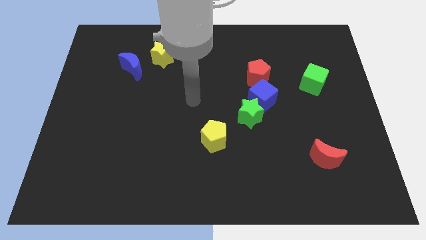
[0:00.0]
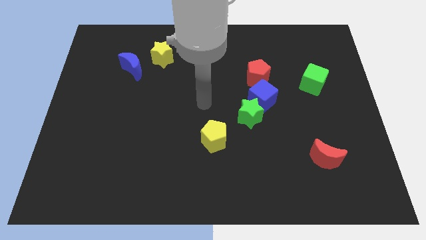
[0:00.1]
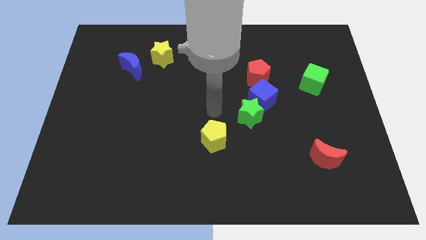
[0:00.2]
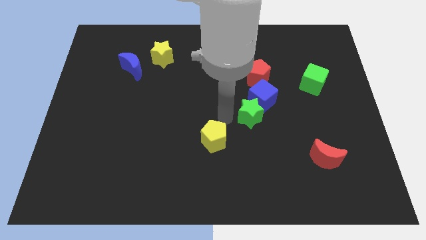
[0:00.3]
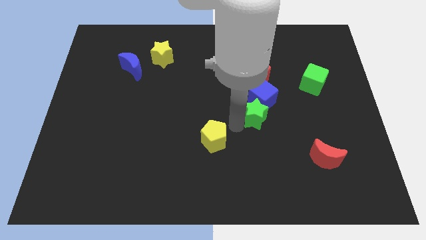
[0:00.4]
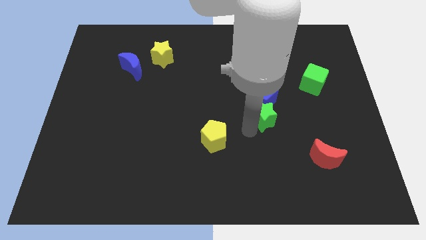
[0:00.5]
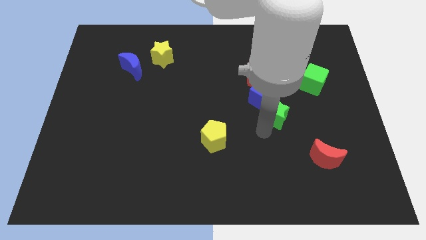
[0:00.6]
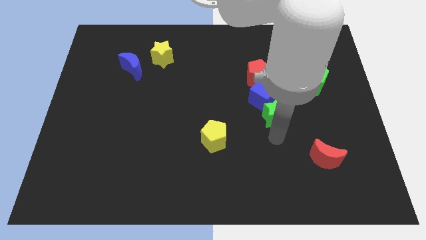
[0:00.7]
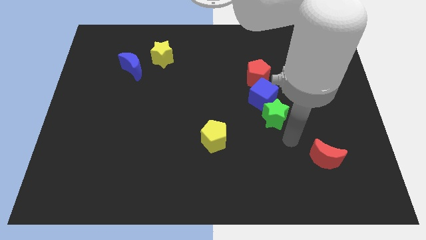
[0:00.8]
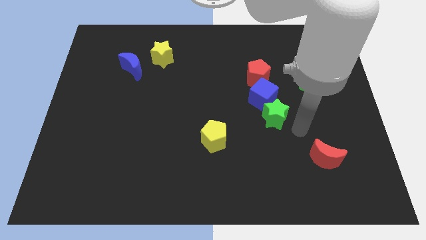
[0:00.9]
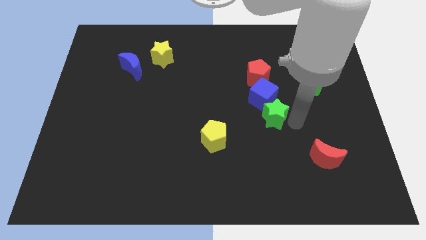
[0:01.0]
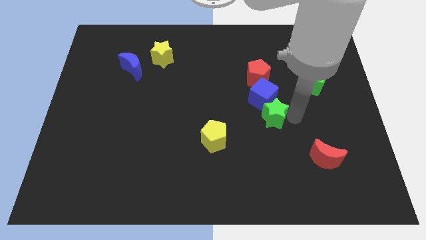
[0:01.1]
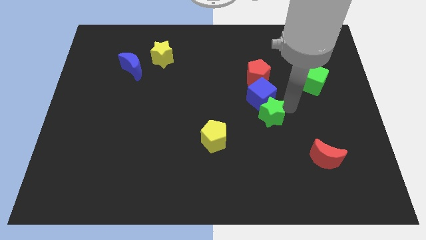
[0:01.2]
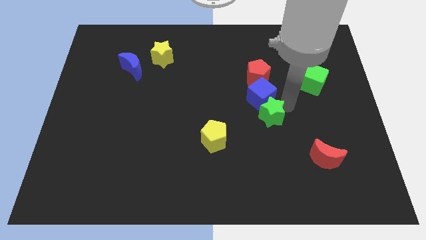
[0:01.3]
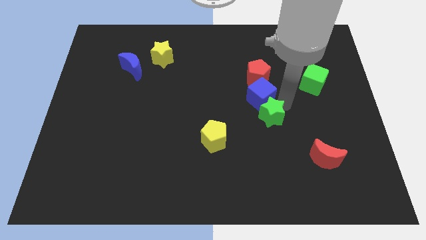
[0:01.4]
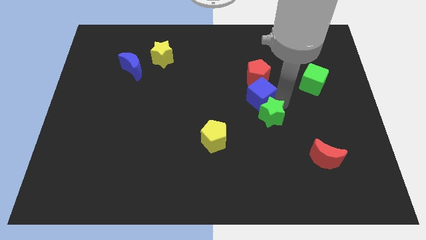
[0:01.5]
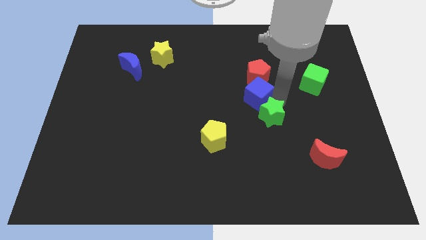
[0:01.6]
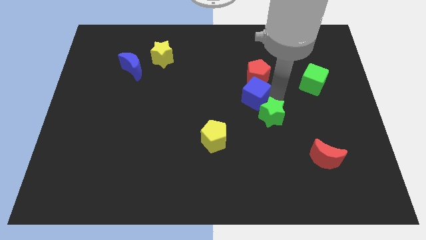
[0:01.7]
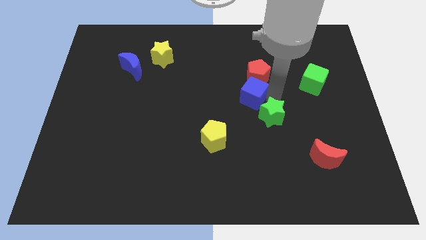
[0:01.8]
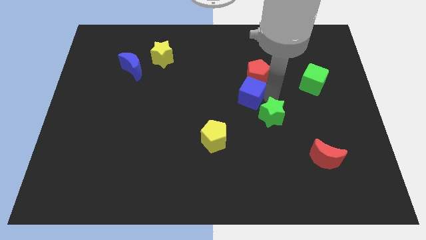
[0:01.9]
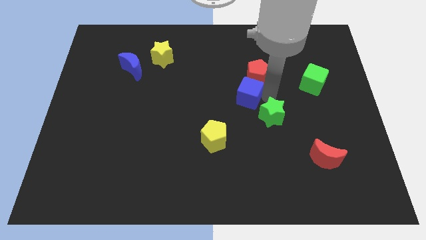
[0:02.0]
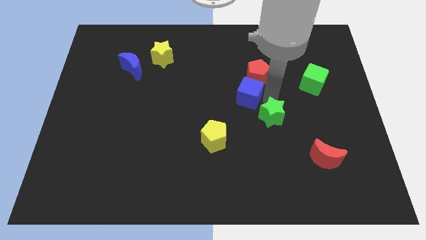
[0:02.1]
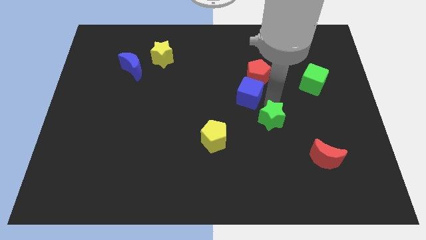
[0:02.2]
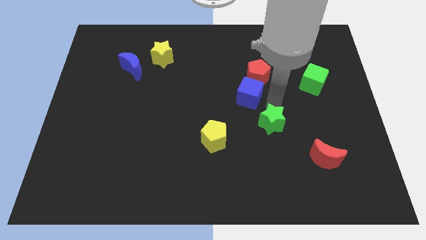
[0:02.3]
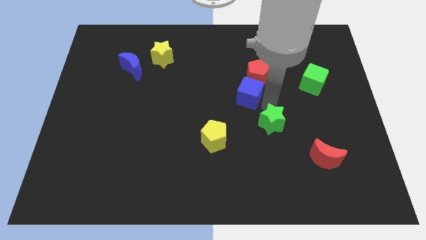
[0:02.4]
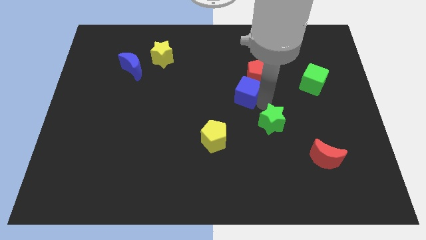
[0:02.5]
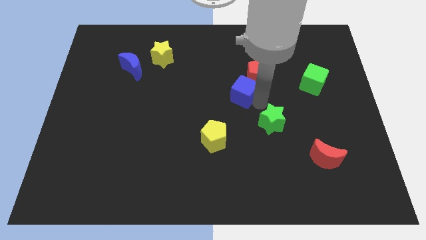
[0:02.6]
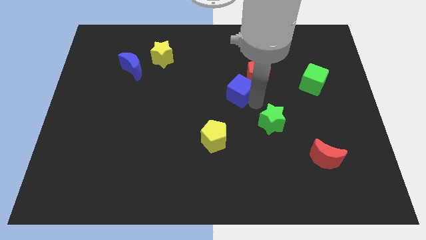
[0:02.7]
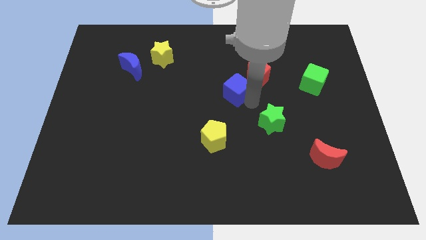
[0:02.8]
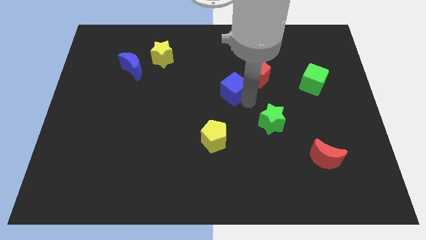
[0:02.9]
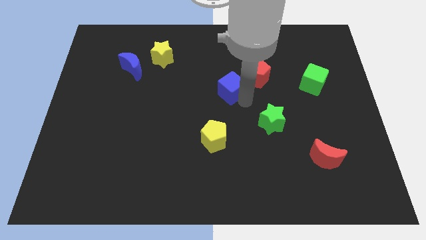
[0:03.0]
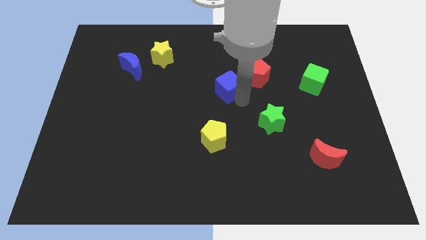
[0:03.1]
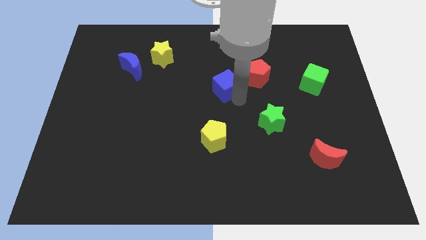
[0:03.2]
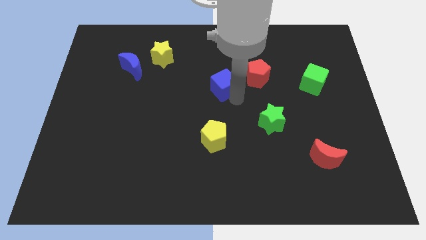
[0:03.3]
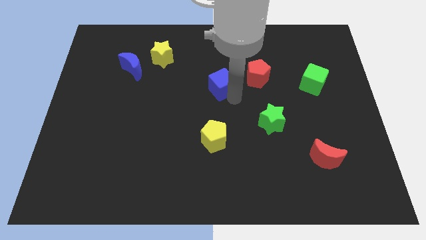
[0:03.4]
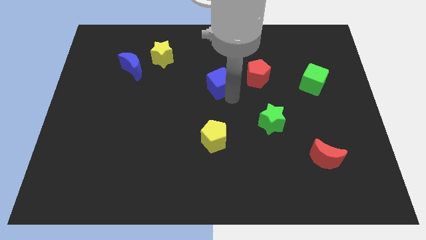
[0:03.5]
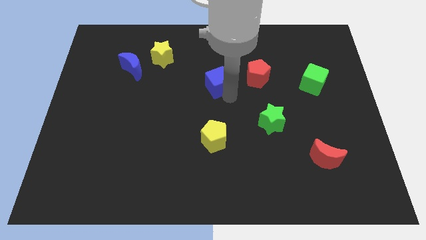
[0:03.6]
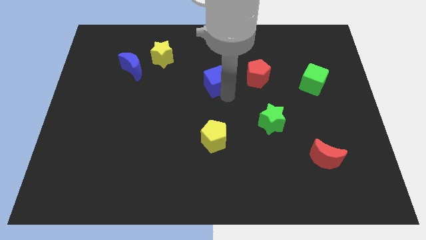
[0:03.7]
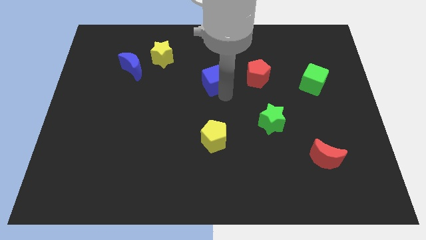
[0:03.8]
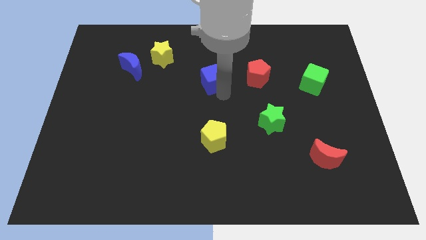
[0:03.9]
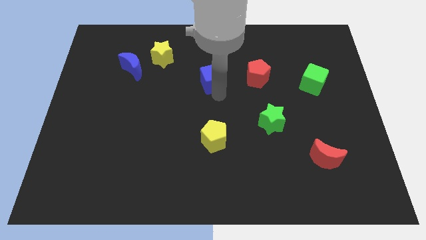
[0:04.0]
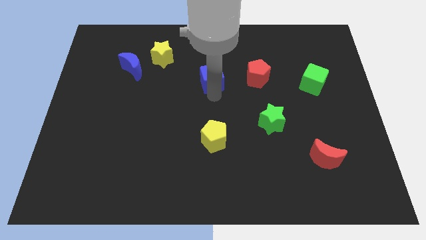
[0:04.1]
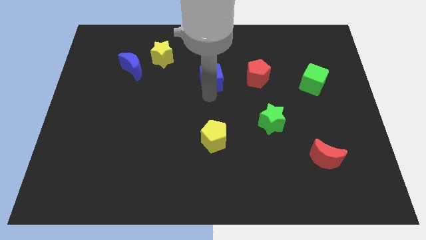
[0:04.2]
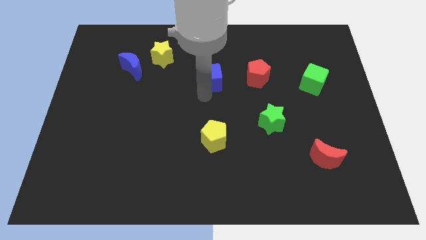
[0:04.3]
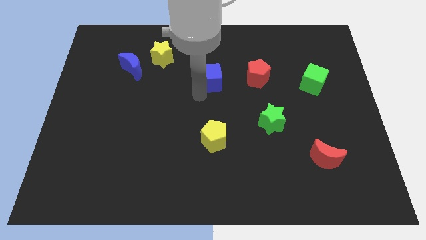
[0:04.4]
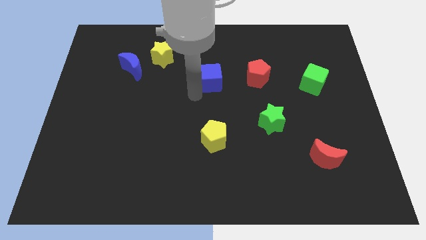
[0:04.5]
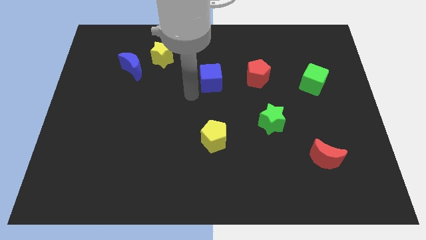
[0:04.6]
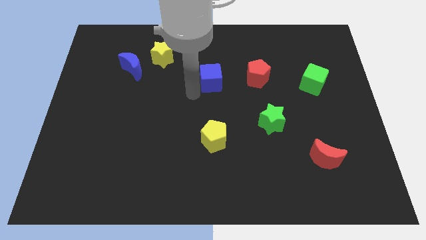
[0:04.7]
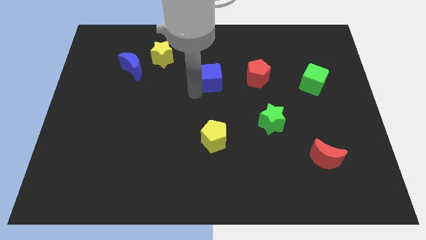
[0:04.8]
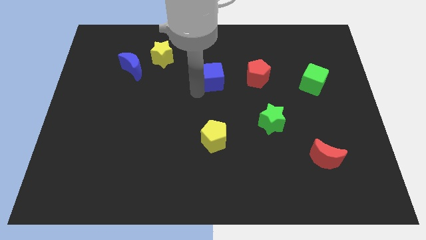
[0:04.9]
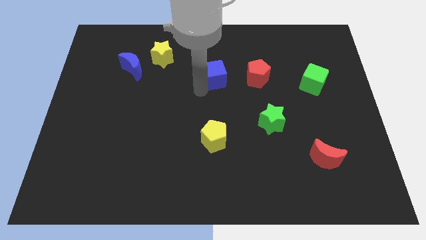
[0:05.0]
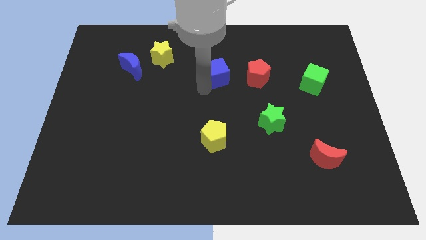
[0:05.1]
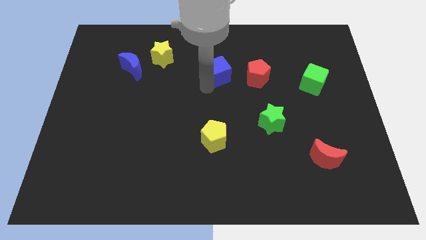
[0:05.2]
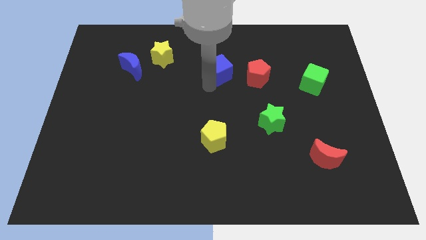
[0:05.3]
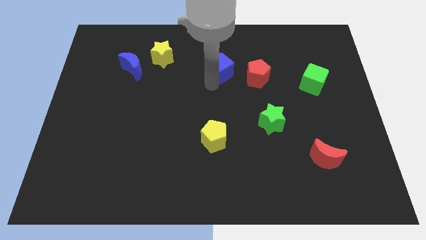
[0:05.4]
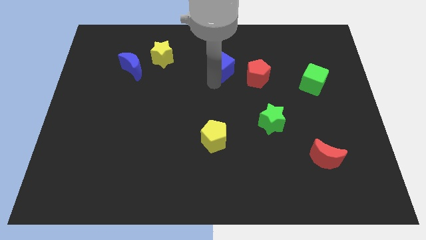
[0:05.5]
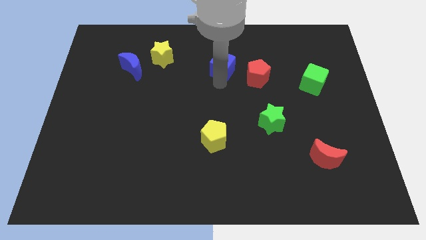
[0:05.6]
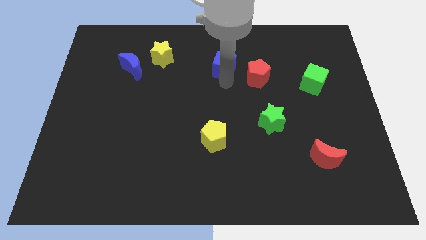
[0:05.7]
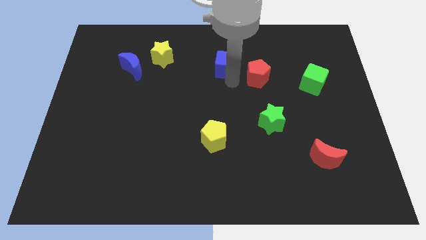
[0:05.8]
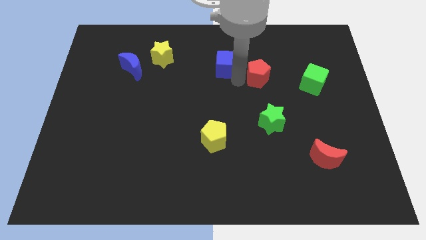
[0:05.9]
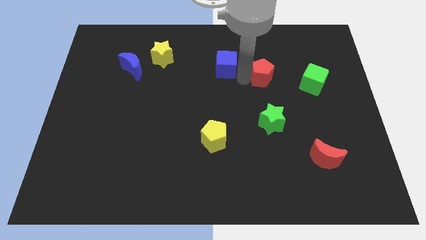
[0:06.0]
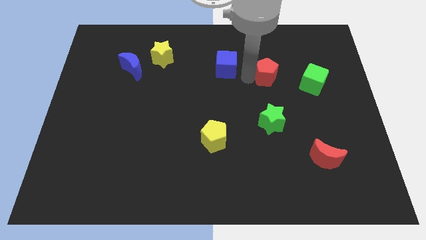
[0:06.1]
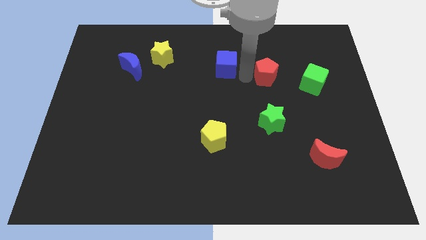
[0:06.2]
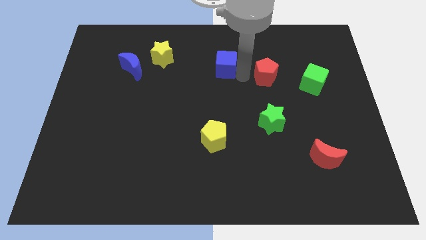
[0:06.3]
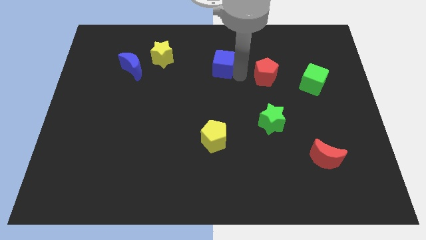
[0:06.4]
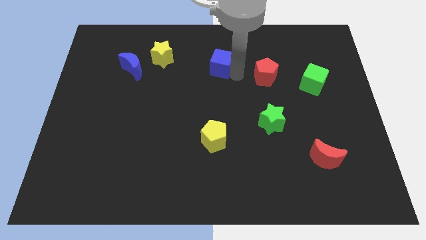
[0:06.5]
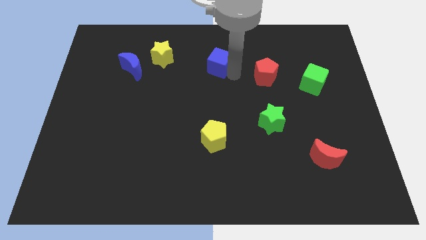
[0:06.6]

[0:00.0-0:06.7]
put the blue cube to the right of the yellow star

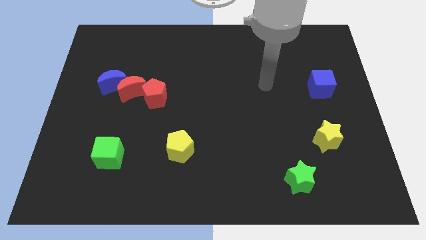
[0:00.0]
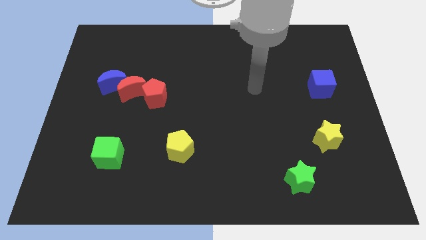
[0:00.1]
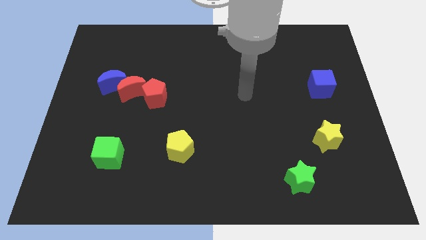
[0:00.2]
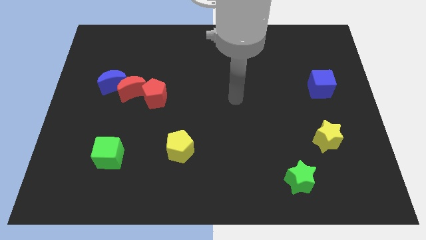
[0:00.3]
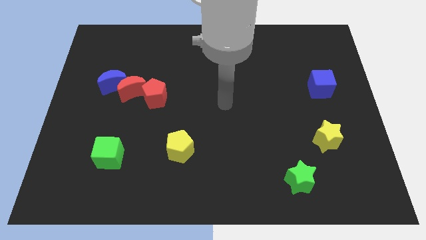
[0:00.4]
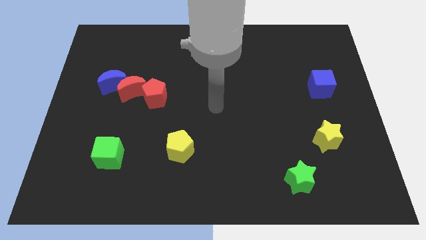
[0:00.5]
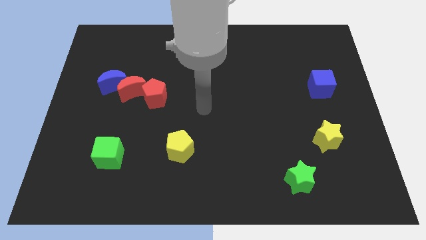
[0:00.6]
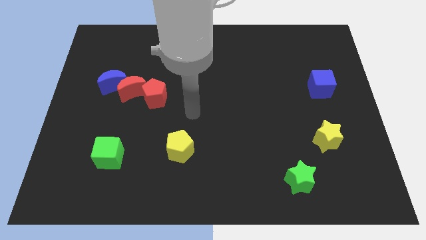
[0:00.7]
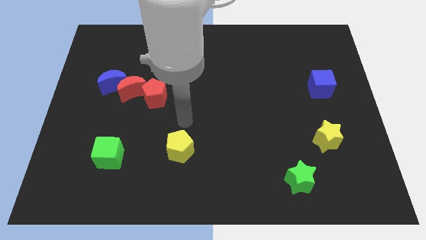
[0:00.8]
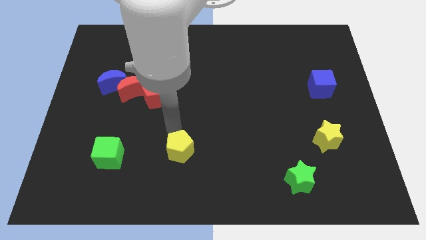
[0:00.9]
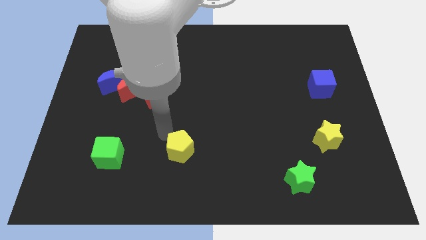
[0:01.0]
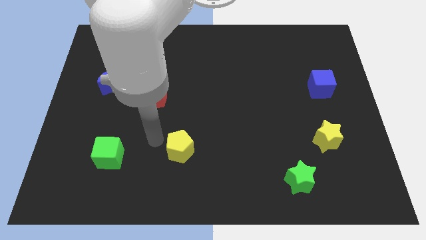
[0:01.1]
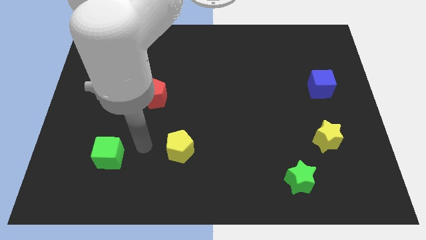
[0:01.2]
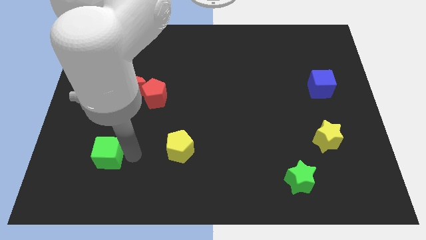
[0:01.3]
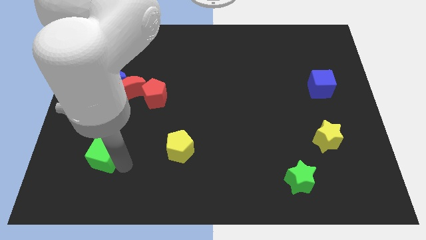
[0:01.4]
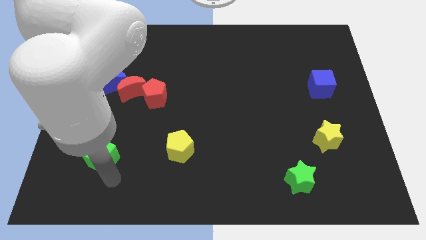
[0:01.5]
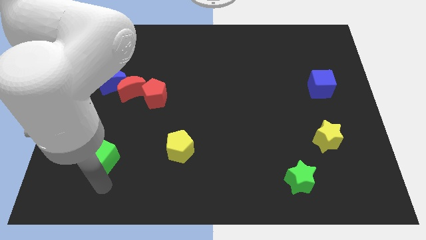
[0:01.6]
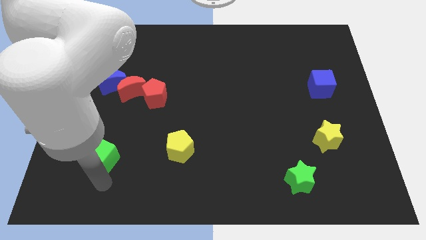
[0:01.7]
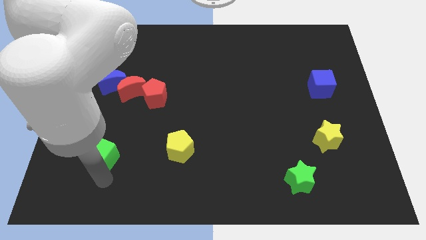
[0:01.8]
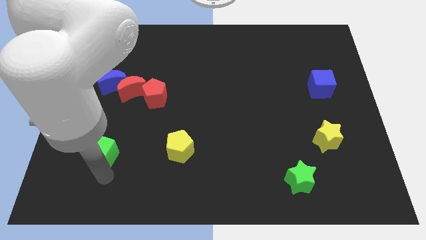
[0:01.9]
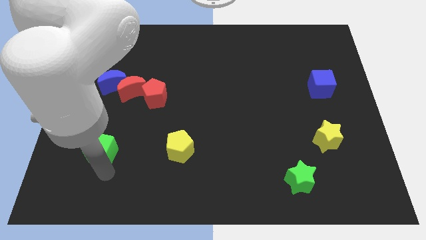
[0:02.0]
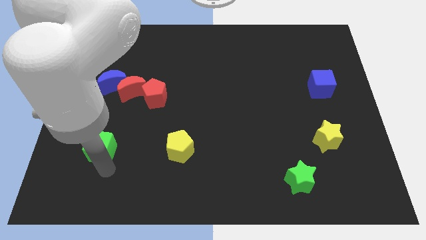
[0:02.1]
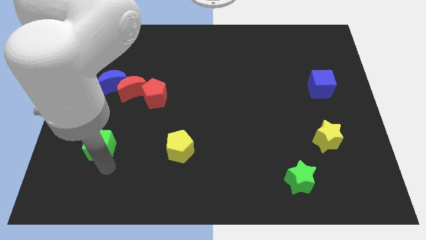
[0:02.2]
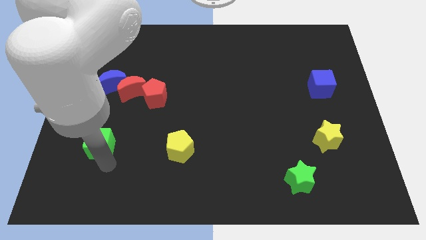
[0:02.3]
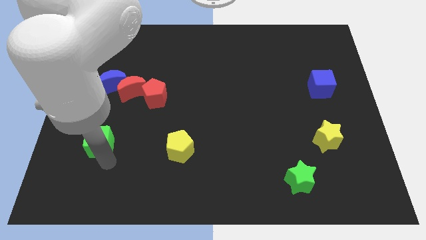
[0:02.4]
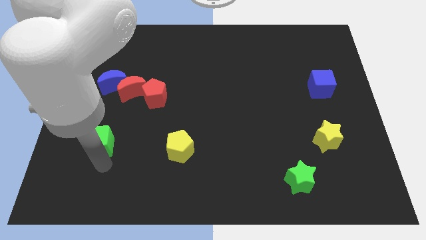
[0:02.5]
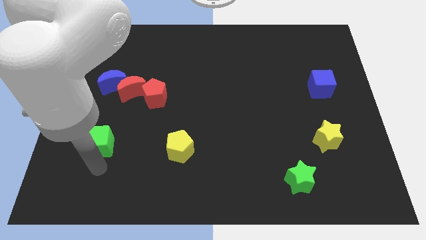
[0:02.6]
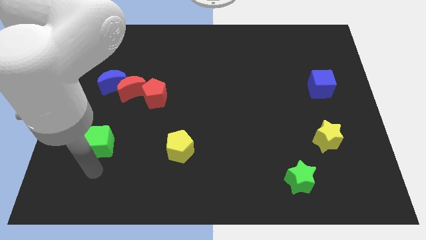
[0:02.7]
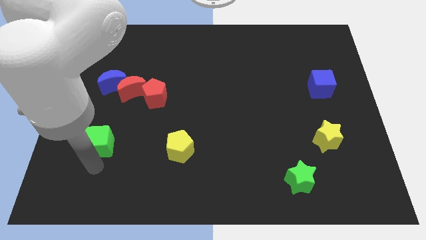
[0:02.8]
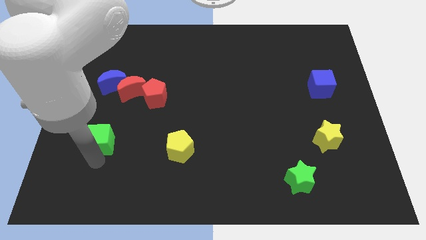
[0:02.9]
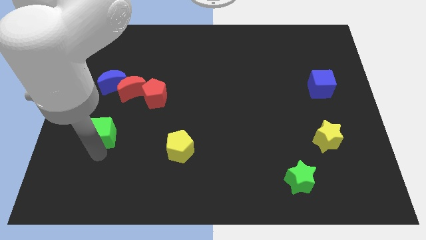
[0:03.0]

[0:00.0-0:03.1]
slide the green cube to the bottom of the blue moon
